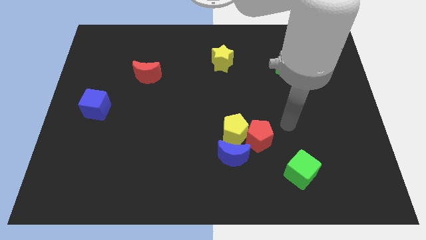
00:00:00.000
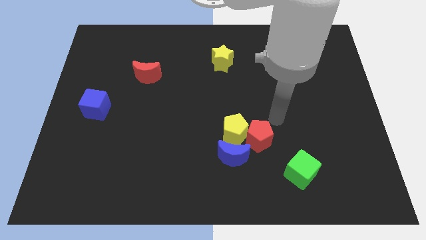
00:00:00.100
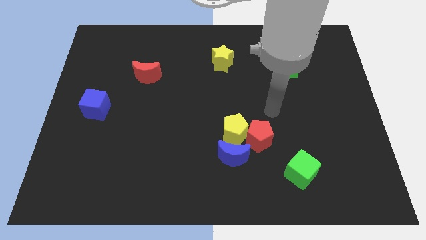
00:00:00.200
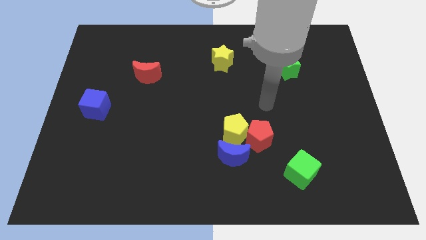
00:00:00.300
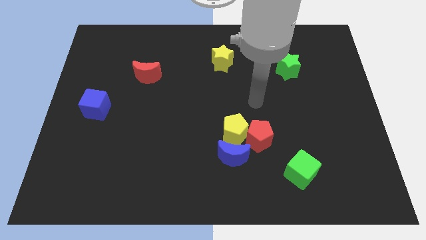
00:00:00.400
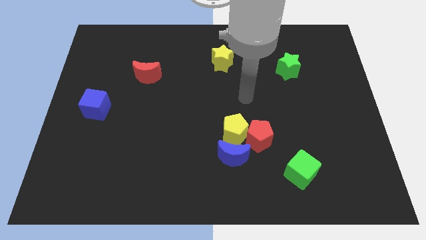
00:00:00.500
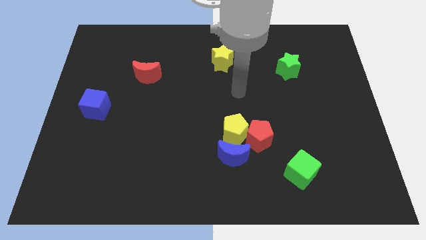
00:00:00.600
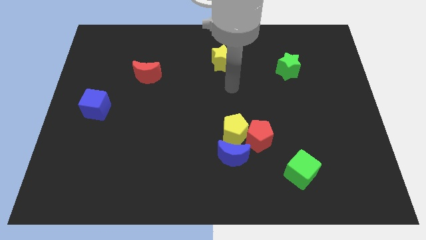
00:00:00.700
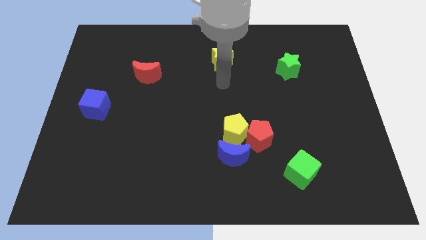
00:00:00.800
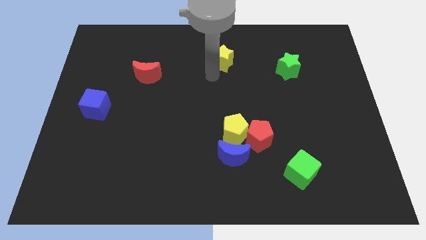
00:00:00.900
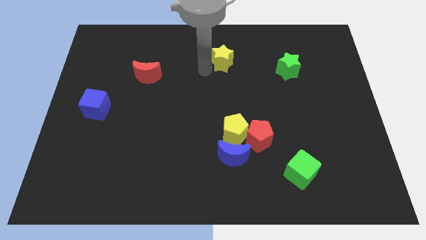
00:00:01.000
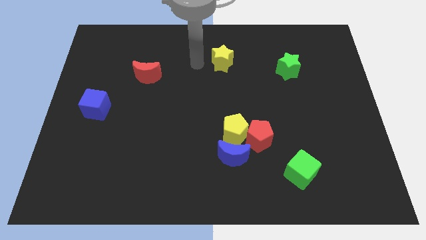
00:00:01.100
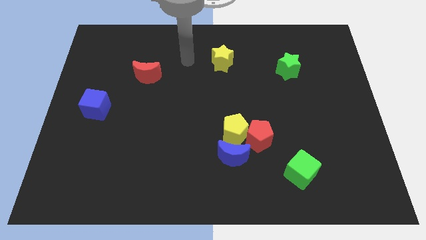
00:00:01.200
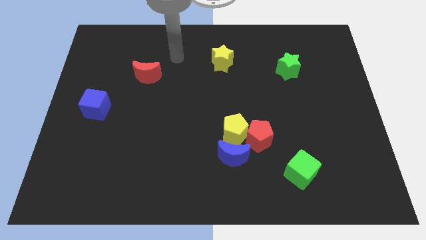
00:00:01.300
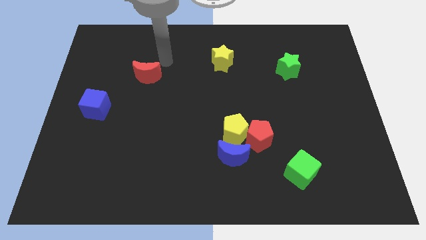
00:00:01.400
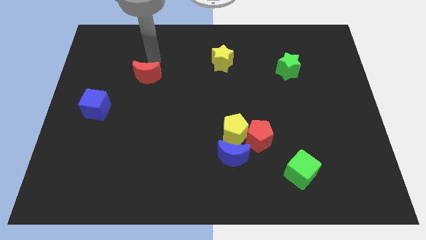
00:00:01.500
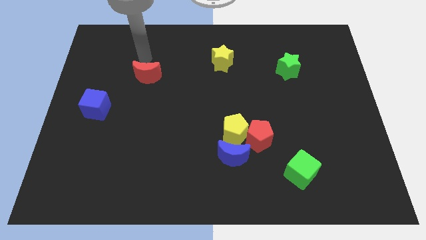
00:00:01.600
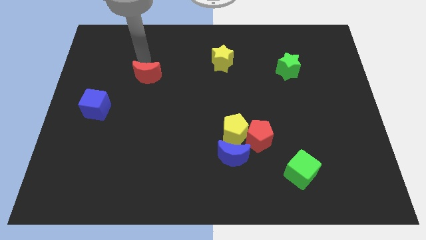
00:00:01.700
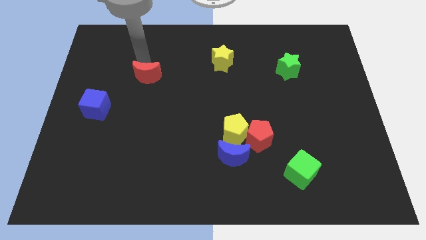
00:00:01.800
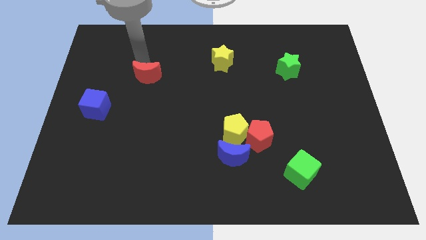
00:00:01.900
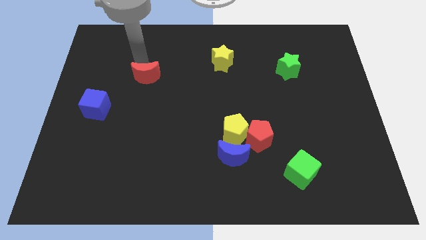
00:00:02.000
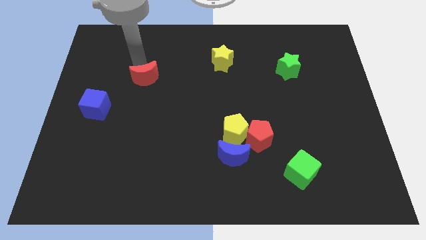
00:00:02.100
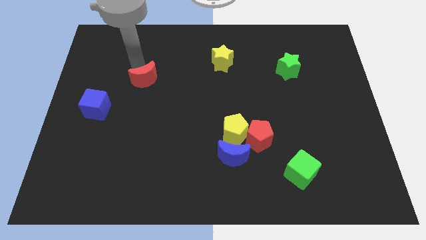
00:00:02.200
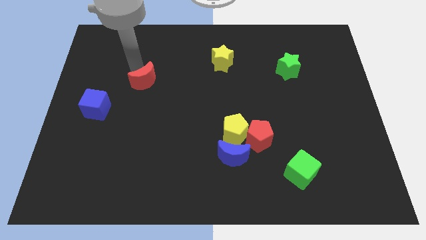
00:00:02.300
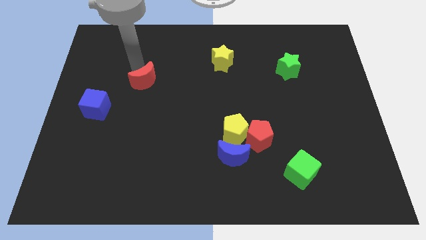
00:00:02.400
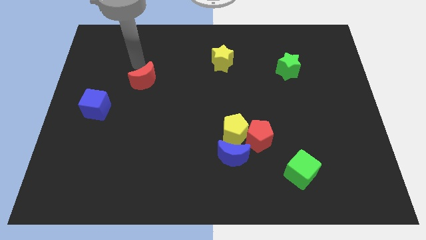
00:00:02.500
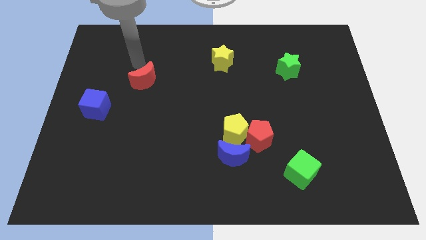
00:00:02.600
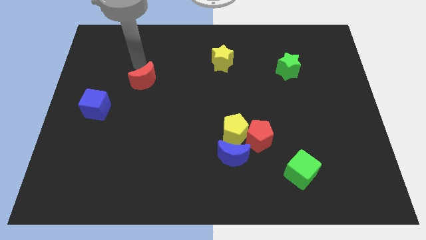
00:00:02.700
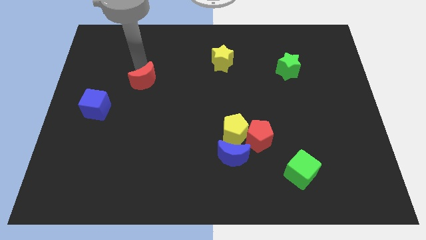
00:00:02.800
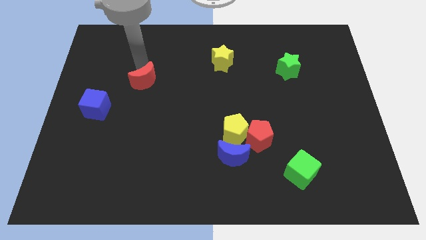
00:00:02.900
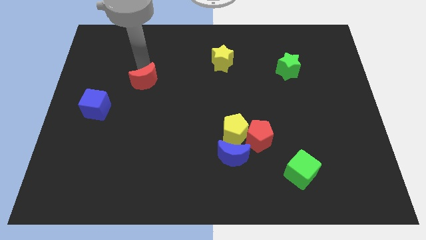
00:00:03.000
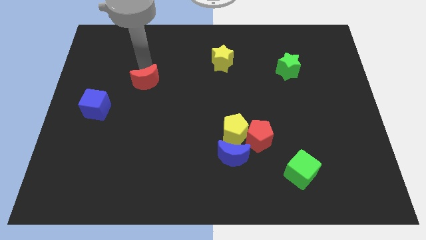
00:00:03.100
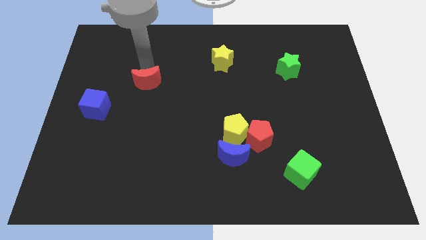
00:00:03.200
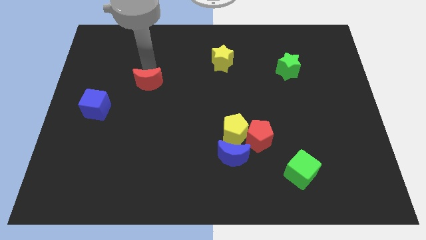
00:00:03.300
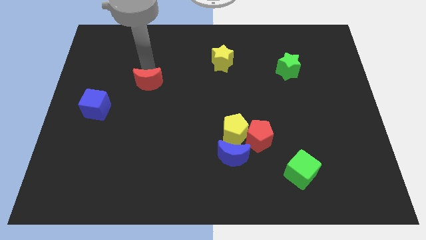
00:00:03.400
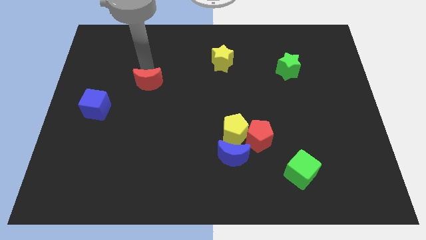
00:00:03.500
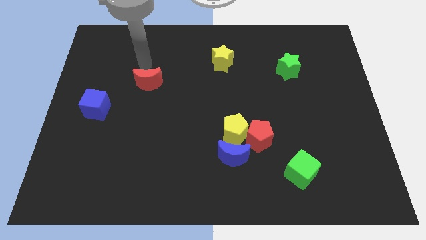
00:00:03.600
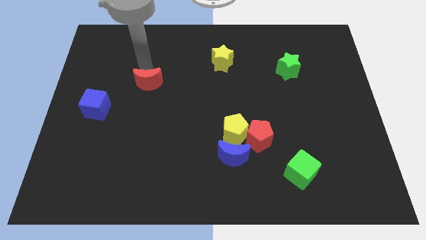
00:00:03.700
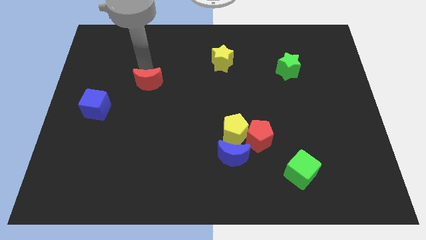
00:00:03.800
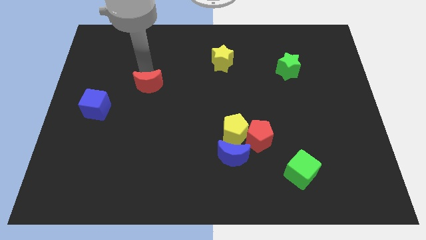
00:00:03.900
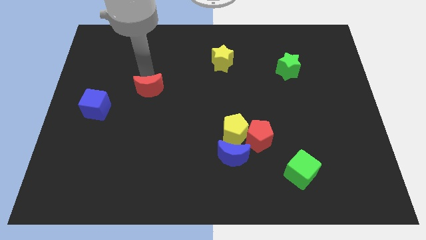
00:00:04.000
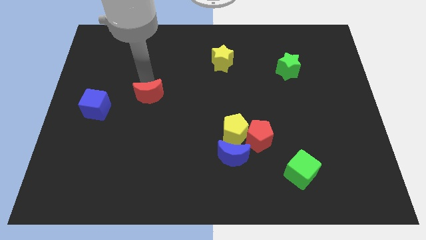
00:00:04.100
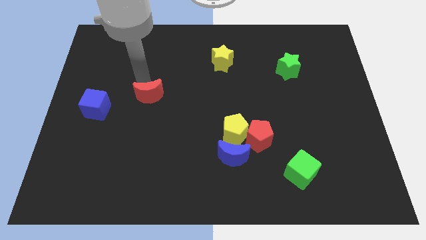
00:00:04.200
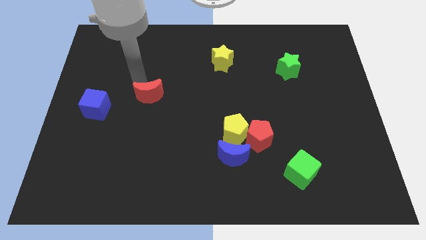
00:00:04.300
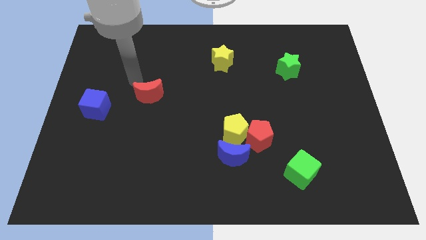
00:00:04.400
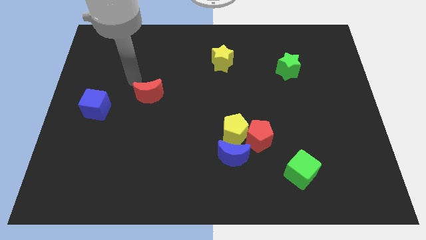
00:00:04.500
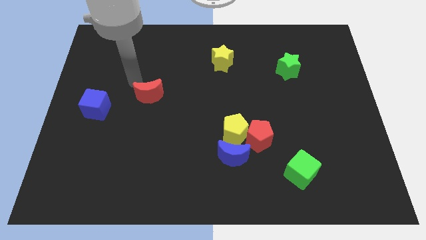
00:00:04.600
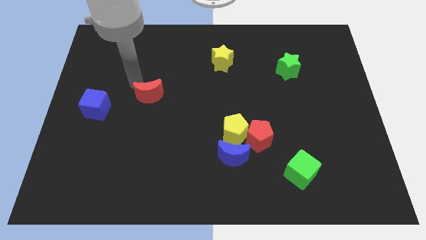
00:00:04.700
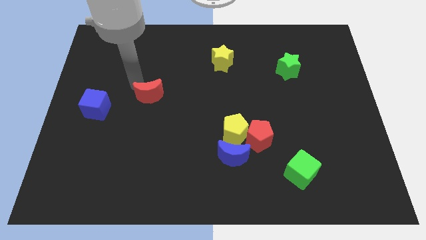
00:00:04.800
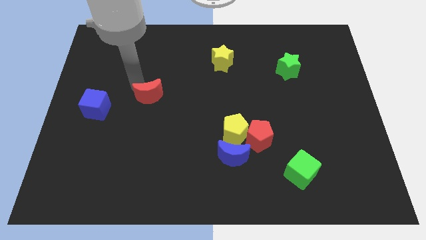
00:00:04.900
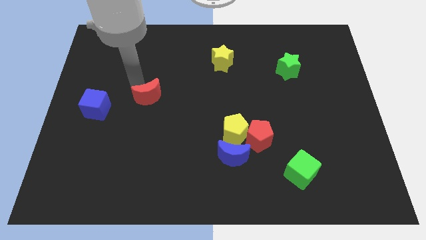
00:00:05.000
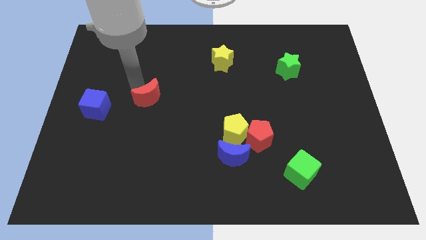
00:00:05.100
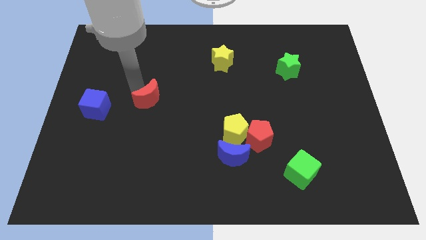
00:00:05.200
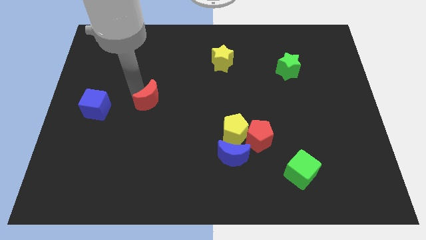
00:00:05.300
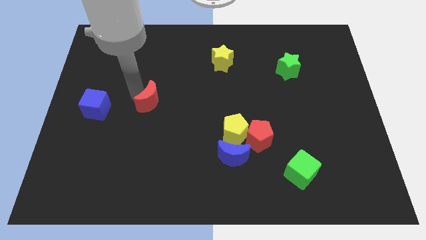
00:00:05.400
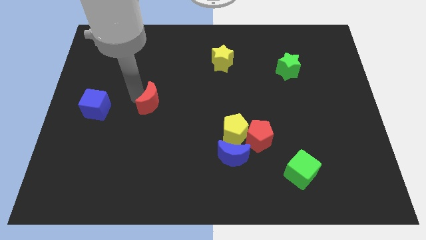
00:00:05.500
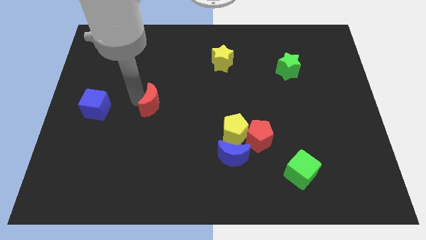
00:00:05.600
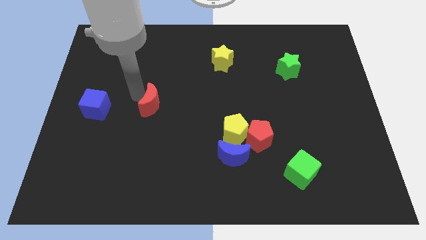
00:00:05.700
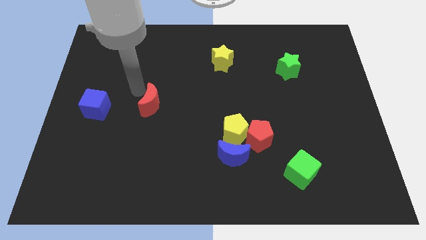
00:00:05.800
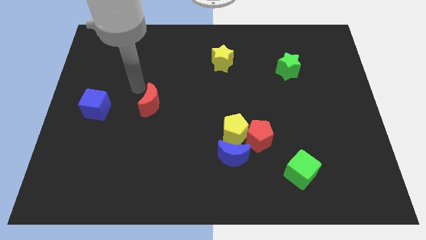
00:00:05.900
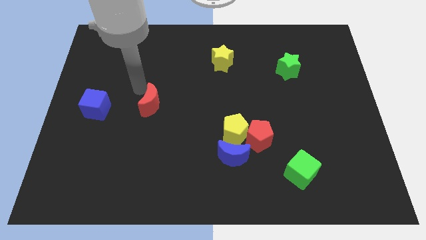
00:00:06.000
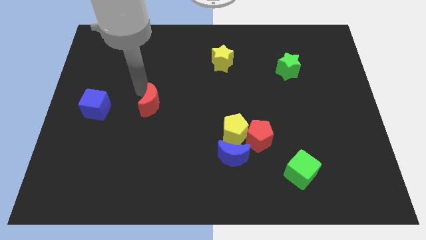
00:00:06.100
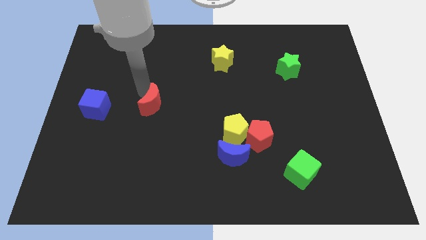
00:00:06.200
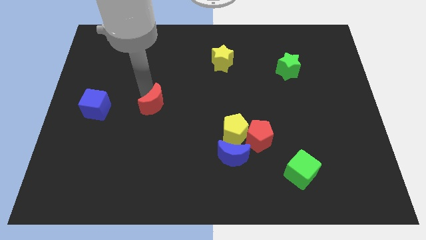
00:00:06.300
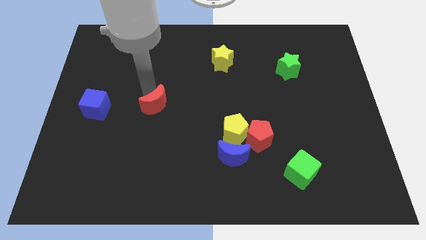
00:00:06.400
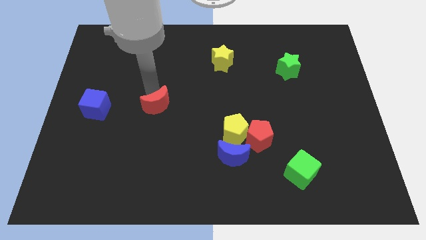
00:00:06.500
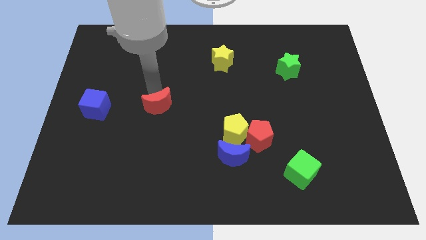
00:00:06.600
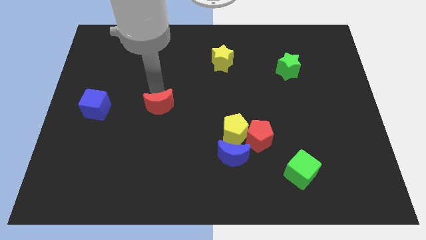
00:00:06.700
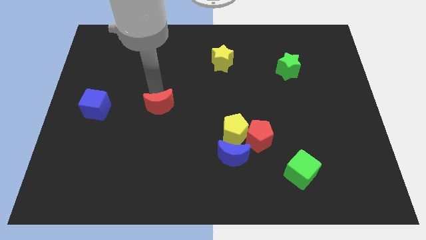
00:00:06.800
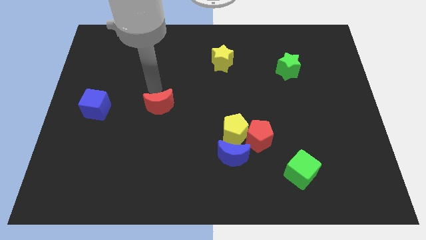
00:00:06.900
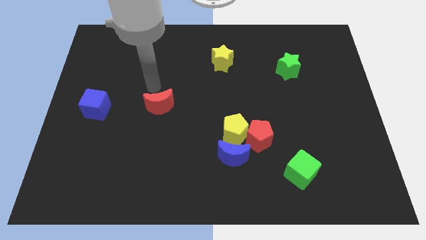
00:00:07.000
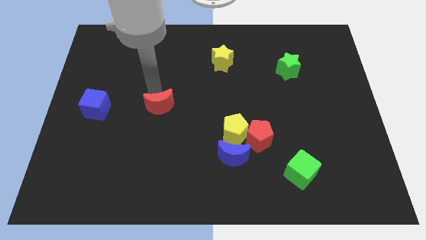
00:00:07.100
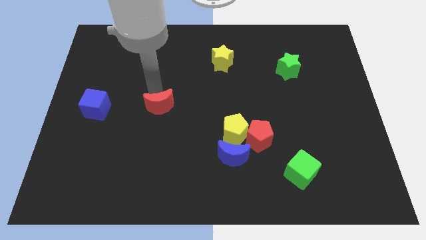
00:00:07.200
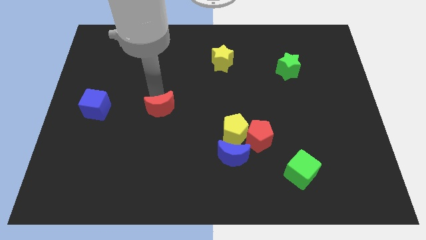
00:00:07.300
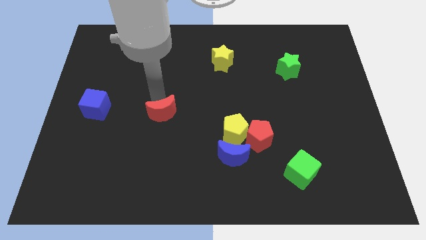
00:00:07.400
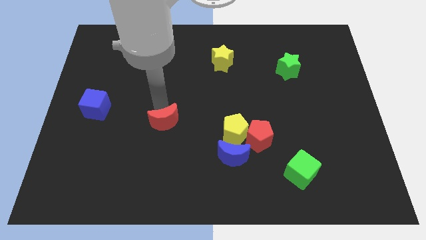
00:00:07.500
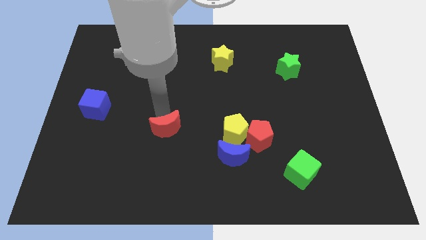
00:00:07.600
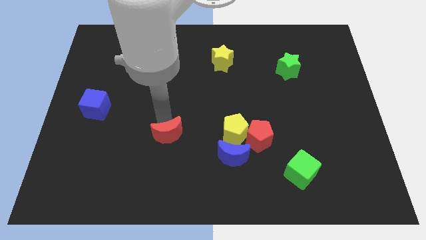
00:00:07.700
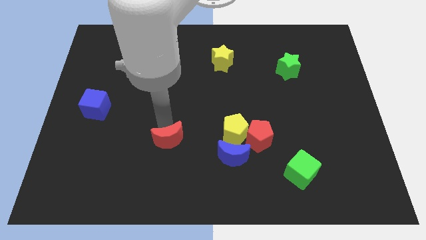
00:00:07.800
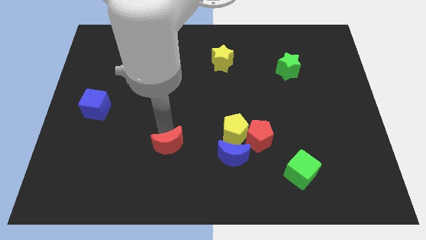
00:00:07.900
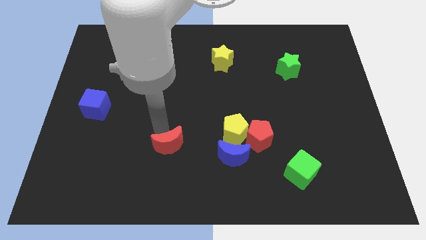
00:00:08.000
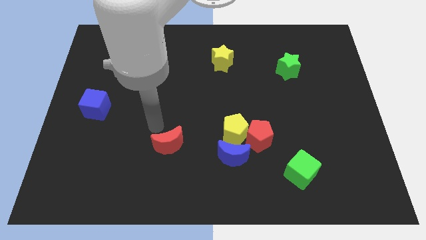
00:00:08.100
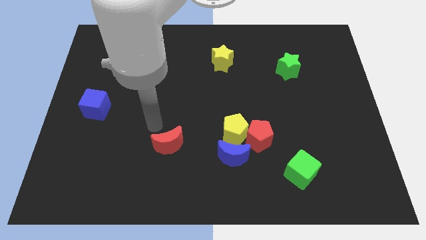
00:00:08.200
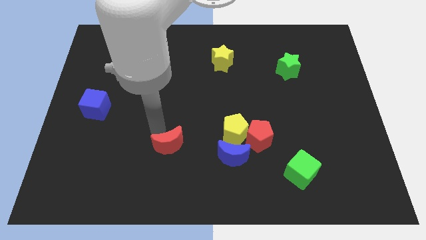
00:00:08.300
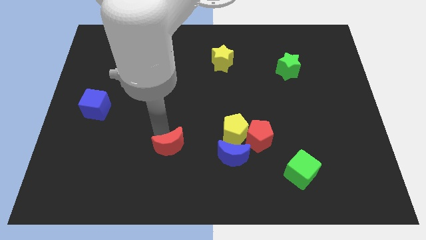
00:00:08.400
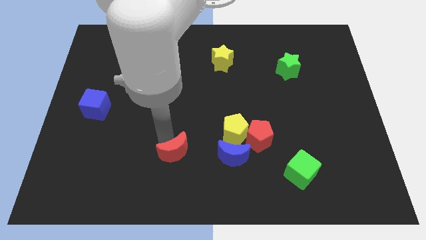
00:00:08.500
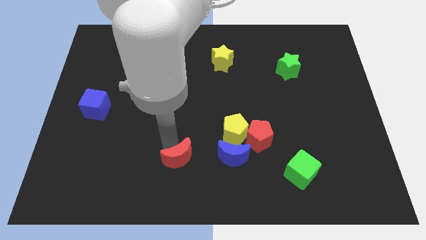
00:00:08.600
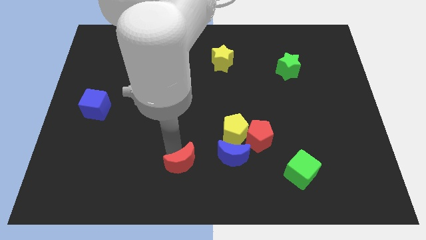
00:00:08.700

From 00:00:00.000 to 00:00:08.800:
put the red moon to the bottom side
